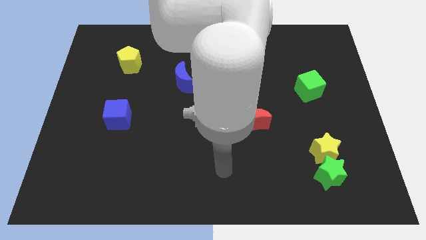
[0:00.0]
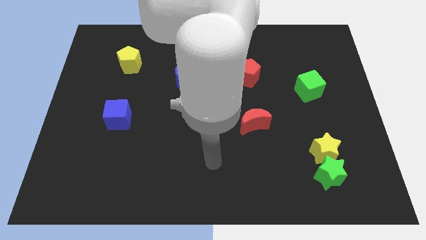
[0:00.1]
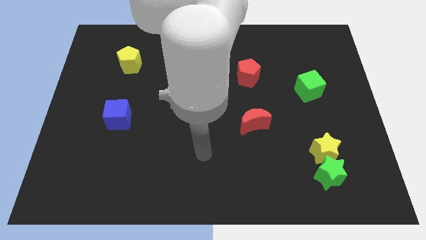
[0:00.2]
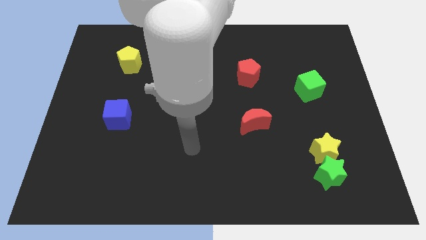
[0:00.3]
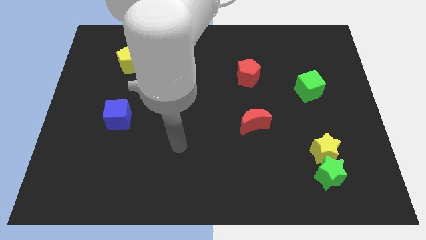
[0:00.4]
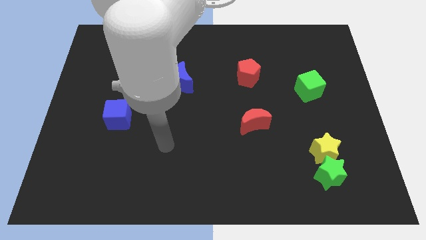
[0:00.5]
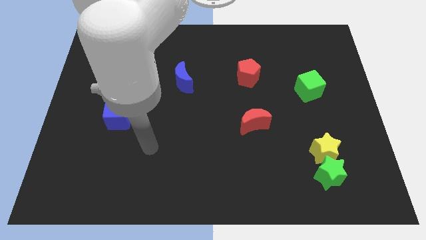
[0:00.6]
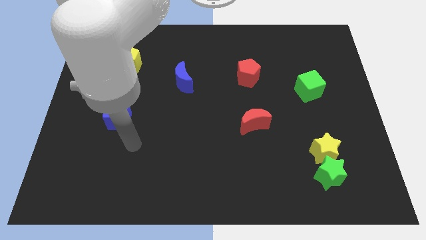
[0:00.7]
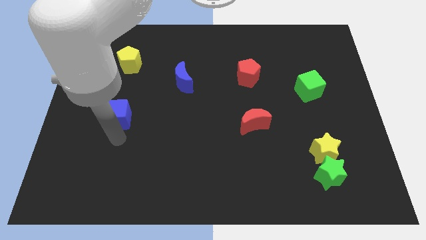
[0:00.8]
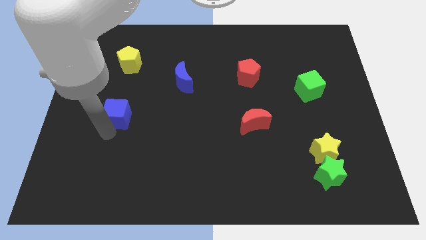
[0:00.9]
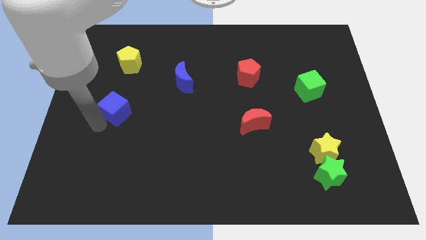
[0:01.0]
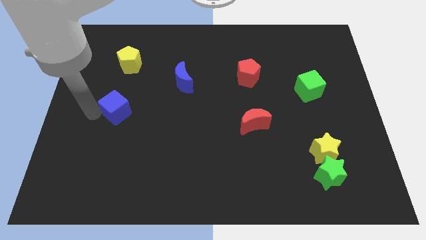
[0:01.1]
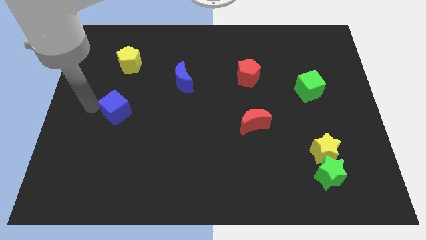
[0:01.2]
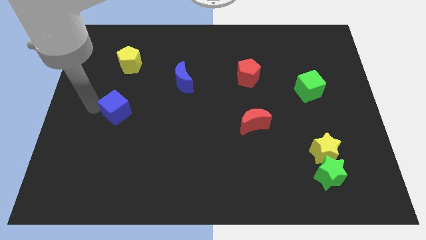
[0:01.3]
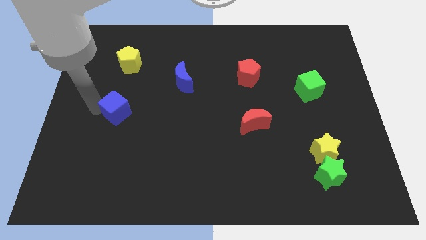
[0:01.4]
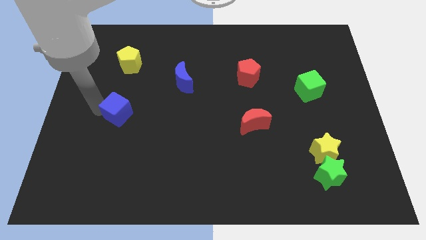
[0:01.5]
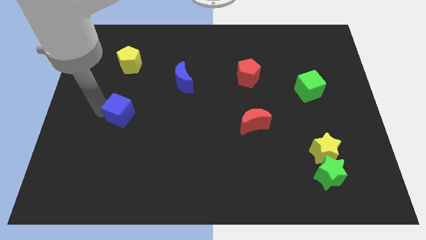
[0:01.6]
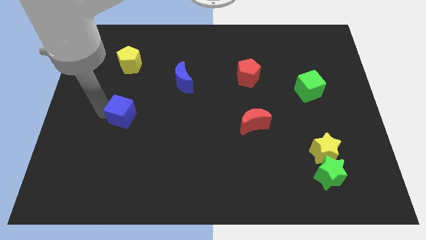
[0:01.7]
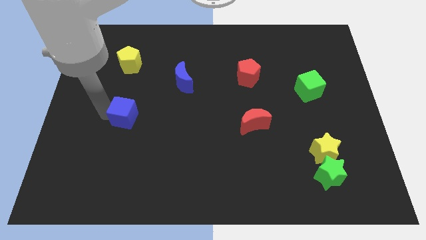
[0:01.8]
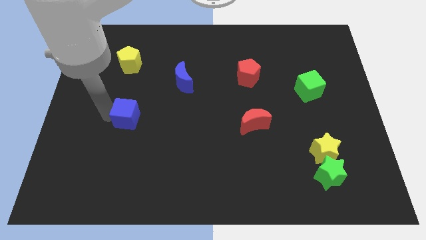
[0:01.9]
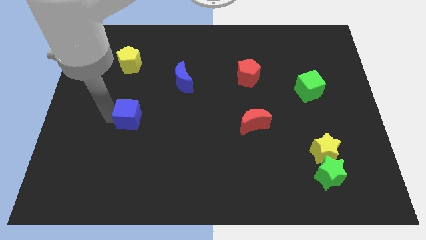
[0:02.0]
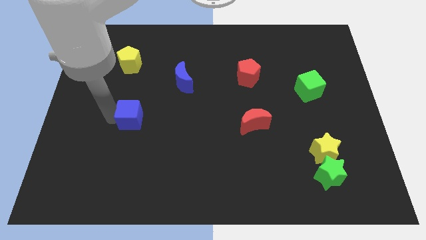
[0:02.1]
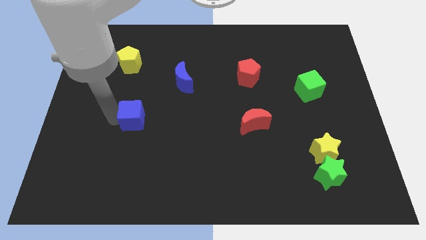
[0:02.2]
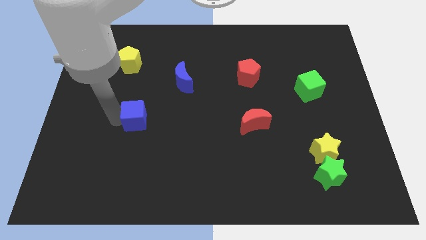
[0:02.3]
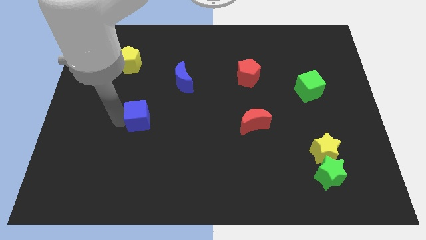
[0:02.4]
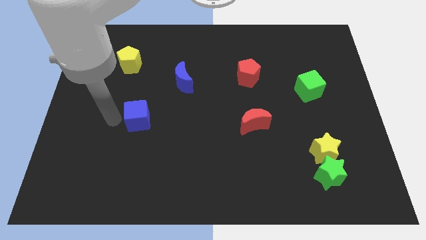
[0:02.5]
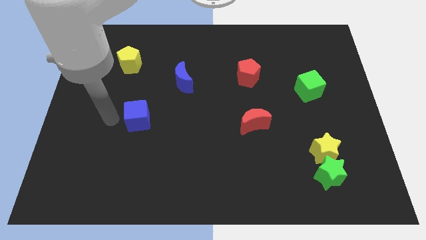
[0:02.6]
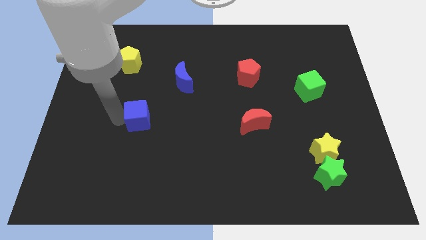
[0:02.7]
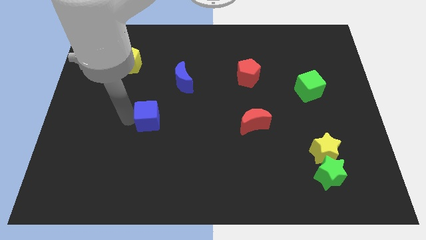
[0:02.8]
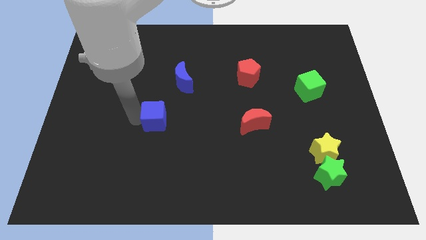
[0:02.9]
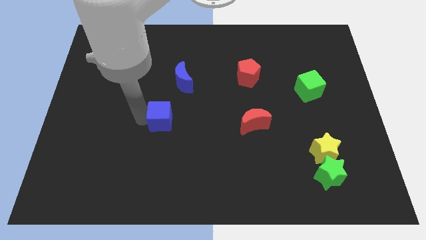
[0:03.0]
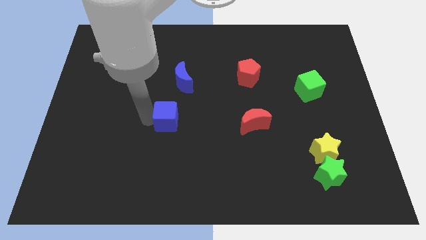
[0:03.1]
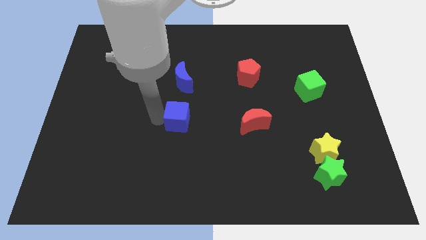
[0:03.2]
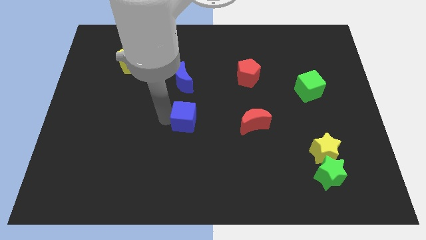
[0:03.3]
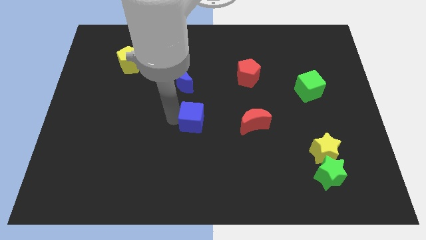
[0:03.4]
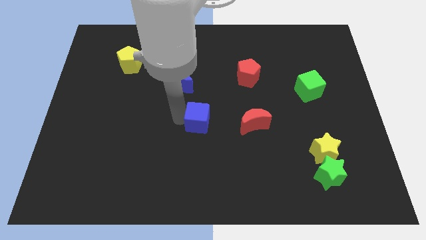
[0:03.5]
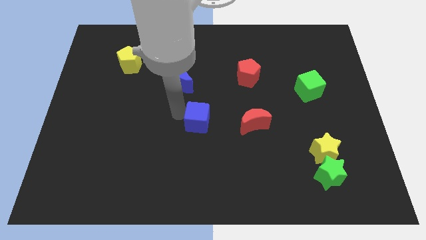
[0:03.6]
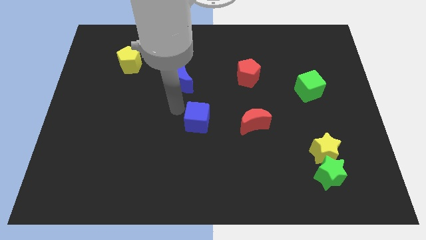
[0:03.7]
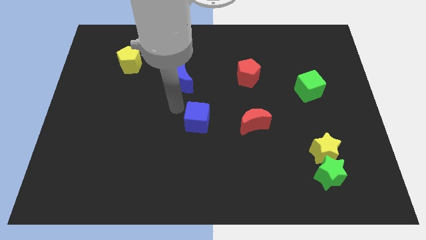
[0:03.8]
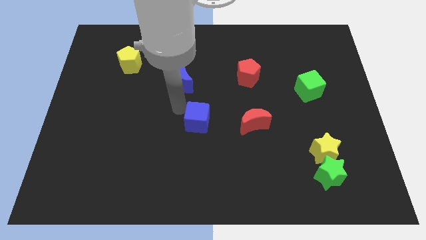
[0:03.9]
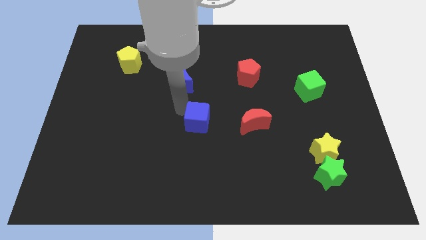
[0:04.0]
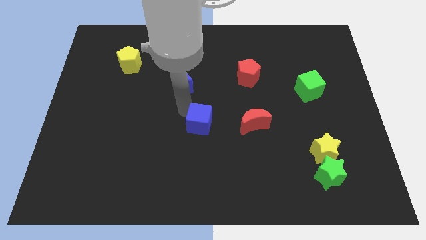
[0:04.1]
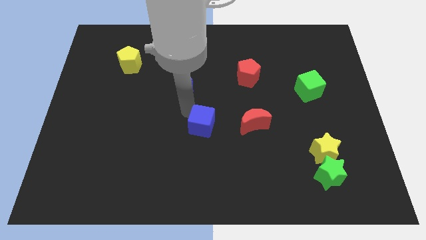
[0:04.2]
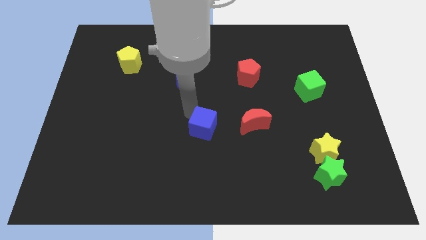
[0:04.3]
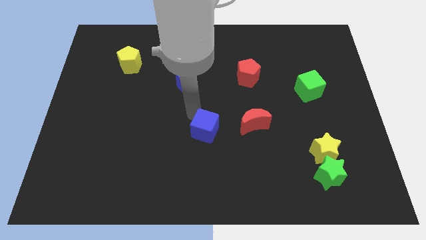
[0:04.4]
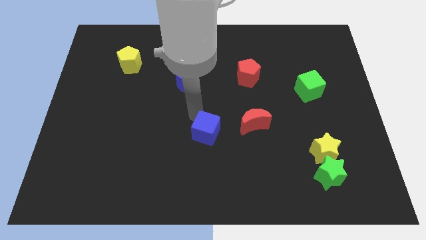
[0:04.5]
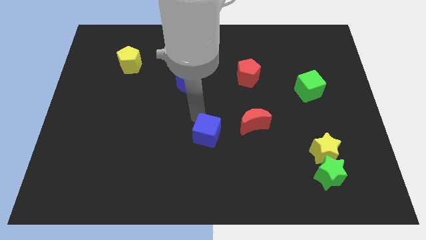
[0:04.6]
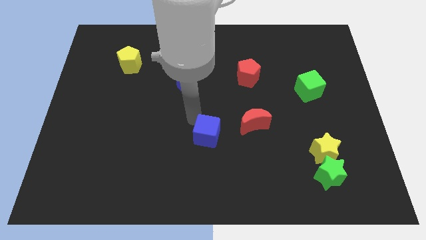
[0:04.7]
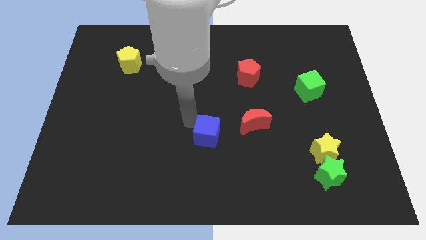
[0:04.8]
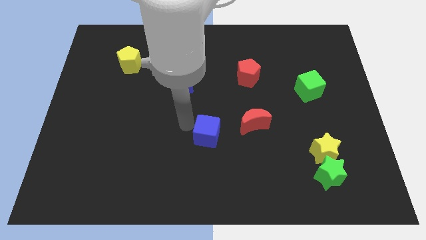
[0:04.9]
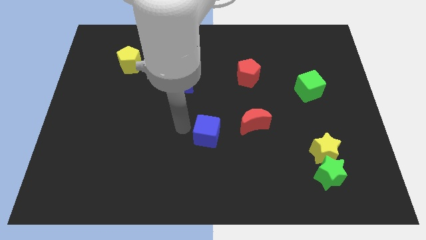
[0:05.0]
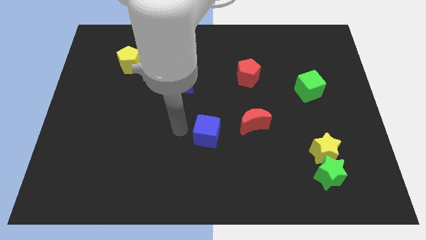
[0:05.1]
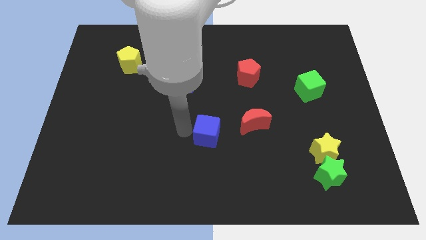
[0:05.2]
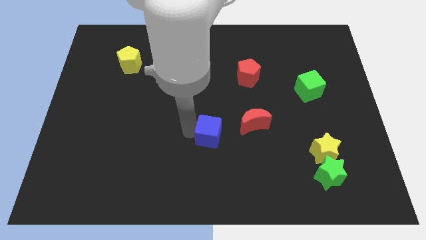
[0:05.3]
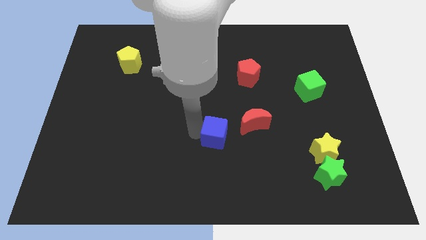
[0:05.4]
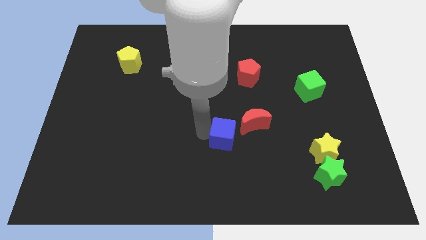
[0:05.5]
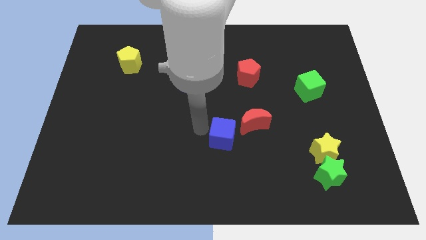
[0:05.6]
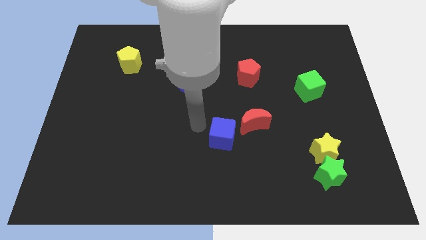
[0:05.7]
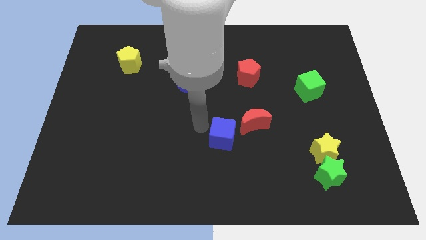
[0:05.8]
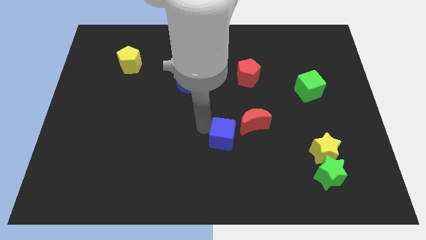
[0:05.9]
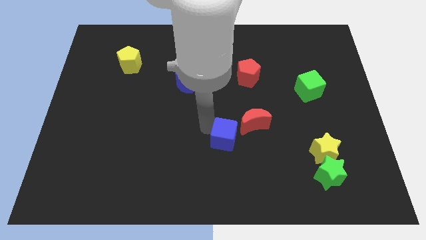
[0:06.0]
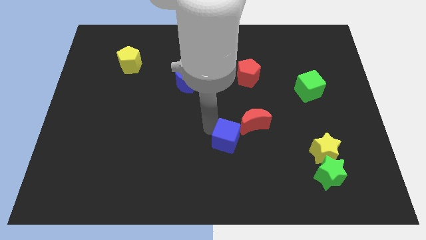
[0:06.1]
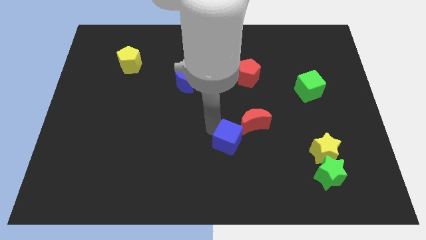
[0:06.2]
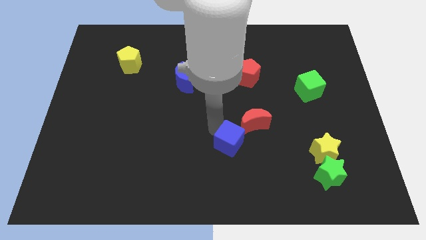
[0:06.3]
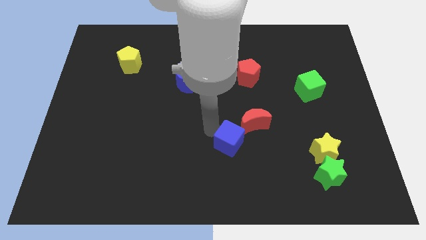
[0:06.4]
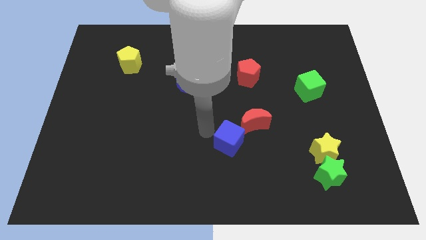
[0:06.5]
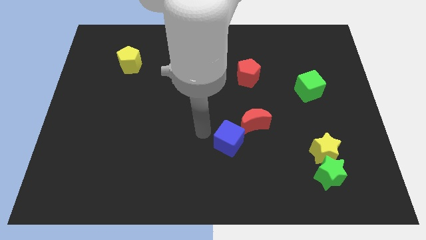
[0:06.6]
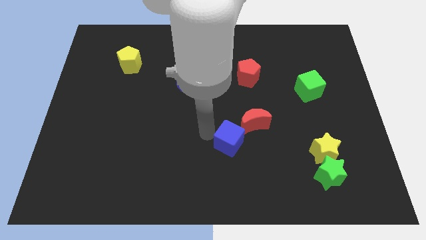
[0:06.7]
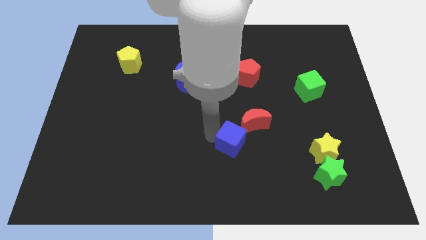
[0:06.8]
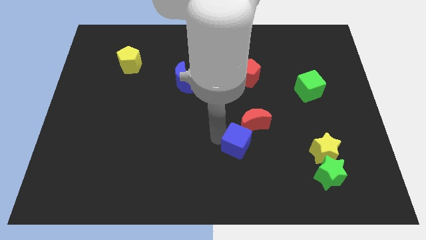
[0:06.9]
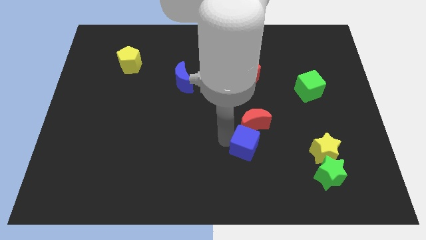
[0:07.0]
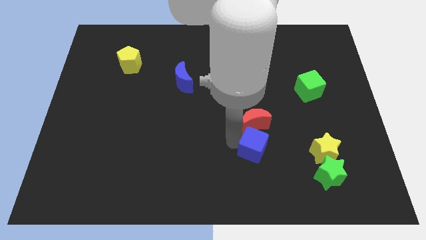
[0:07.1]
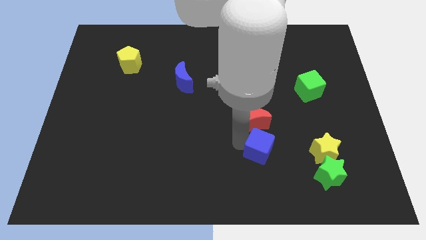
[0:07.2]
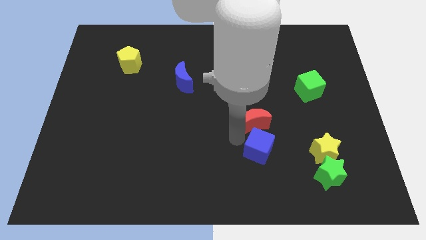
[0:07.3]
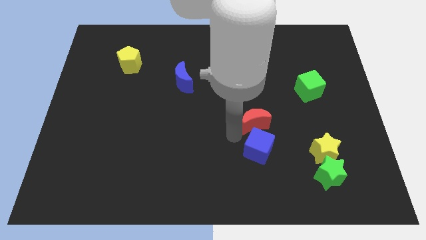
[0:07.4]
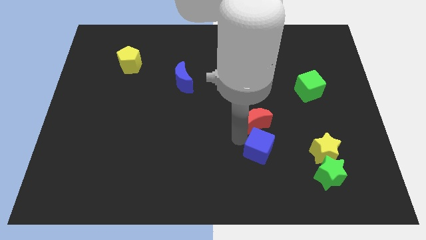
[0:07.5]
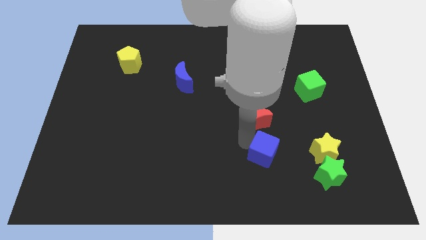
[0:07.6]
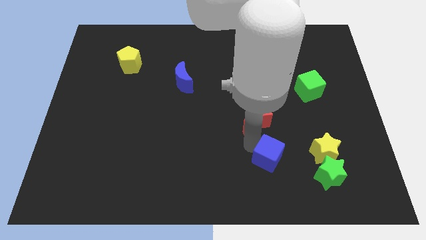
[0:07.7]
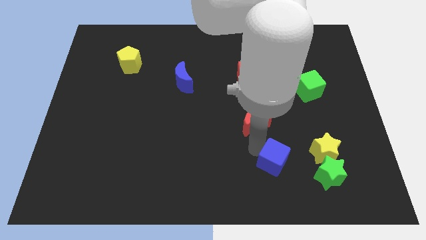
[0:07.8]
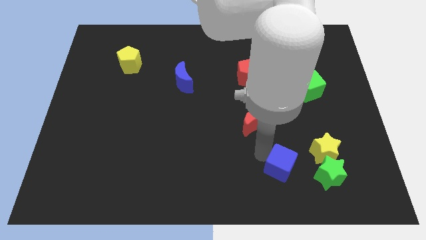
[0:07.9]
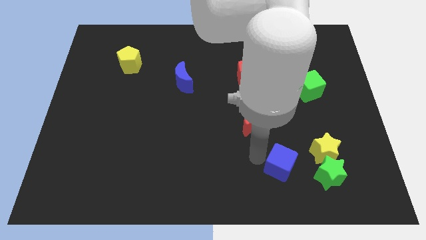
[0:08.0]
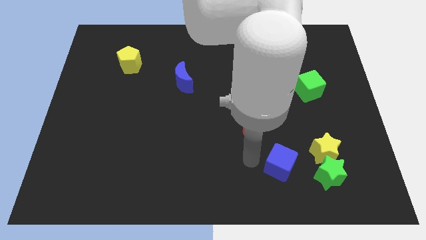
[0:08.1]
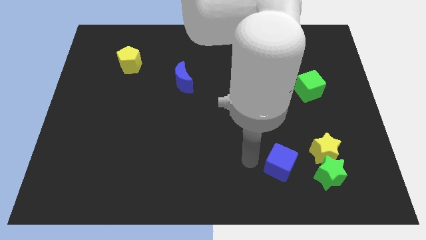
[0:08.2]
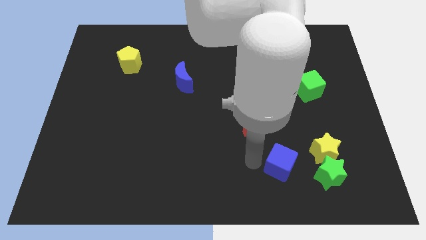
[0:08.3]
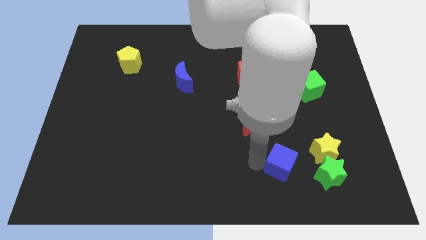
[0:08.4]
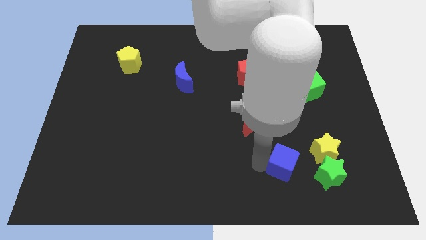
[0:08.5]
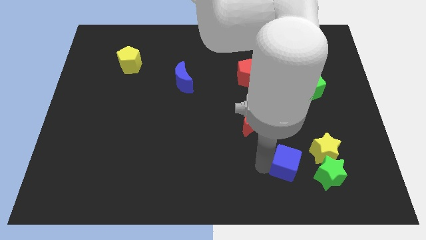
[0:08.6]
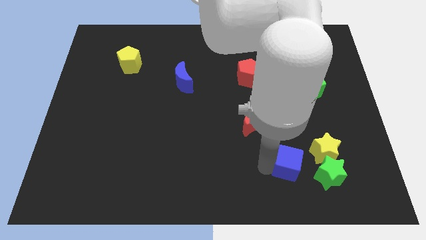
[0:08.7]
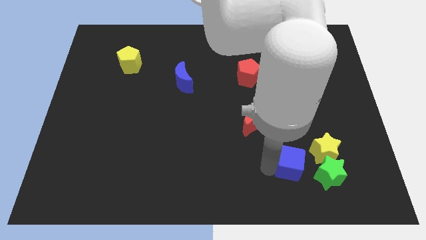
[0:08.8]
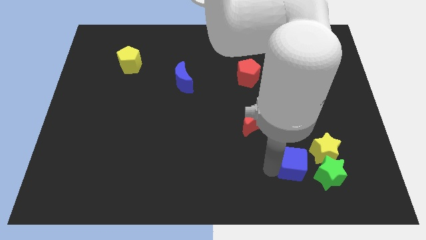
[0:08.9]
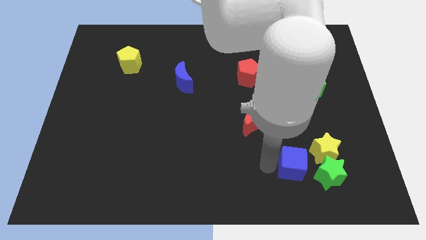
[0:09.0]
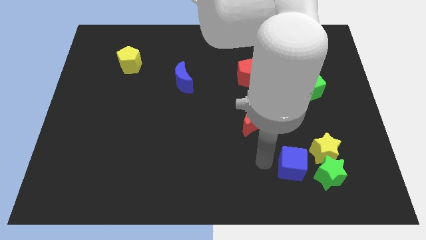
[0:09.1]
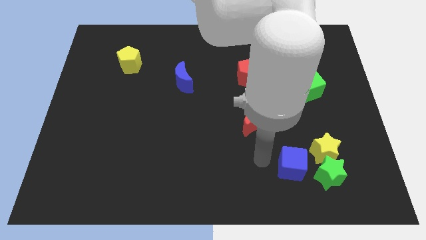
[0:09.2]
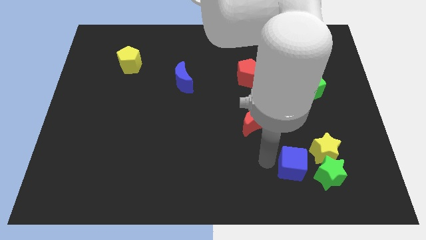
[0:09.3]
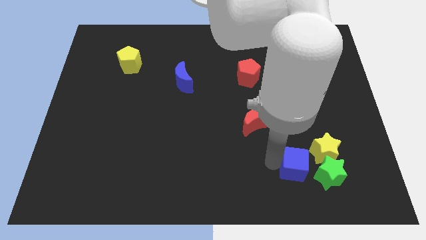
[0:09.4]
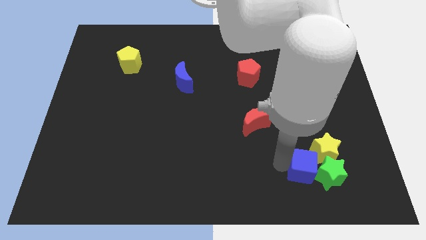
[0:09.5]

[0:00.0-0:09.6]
push the blue cube close to the green star
